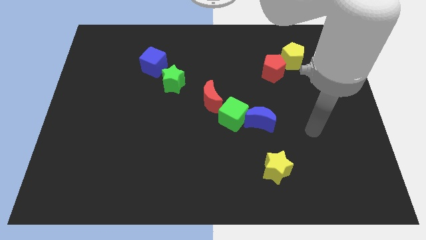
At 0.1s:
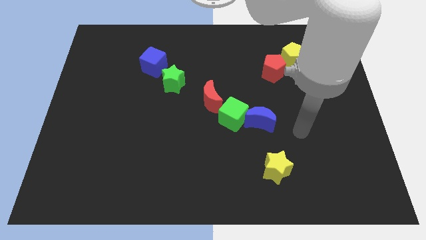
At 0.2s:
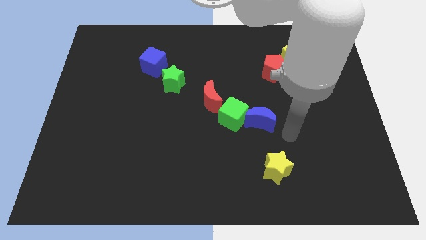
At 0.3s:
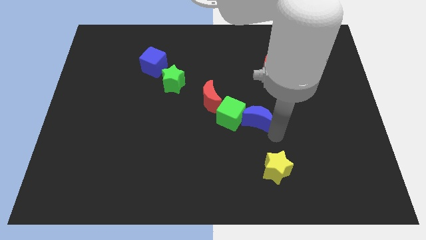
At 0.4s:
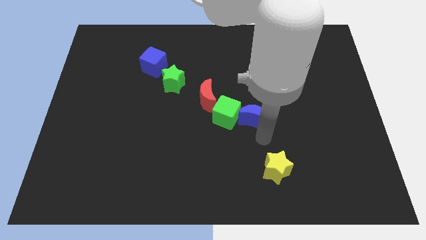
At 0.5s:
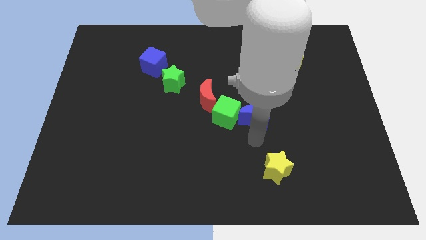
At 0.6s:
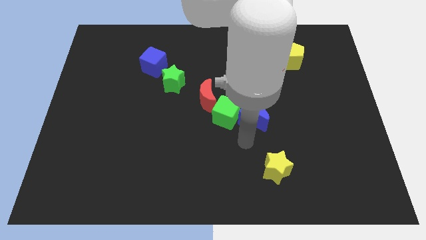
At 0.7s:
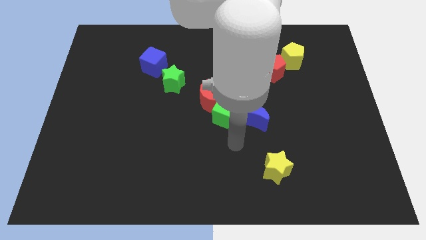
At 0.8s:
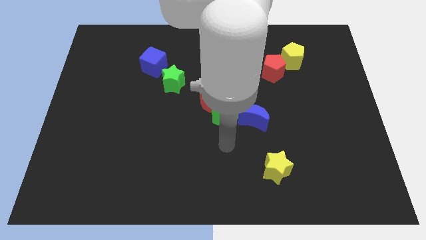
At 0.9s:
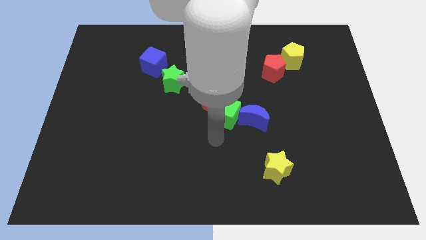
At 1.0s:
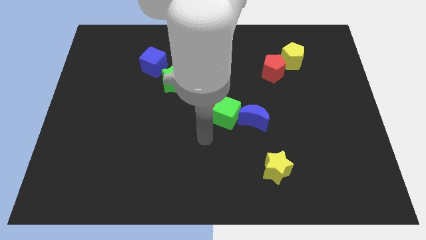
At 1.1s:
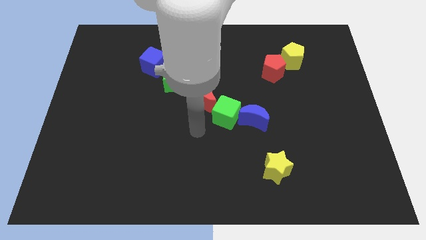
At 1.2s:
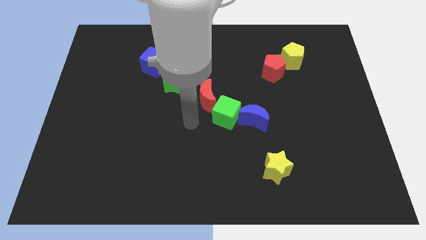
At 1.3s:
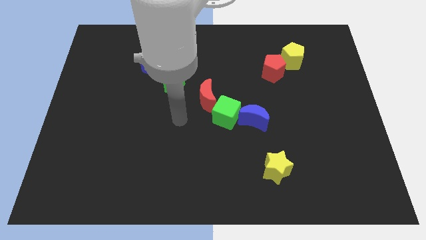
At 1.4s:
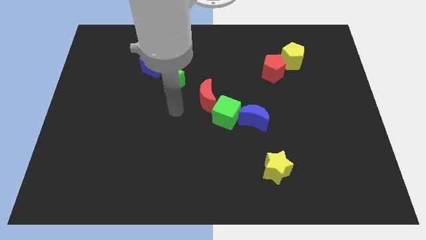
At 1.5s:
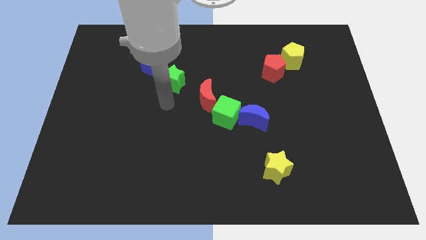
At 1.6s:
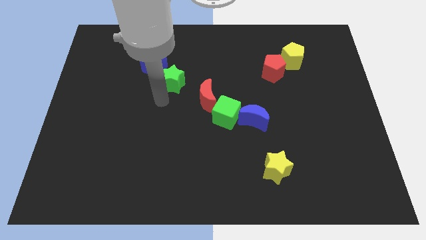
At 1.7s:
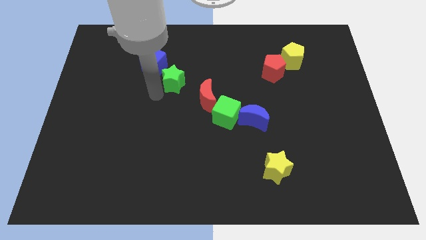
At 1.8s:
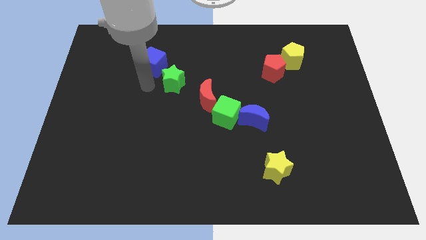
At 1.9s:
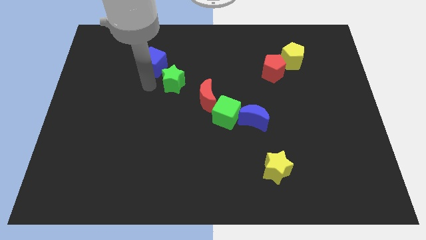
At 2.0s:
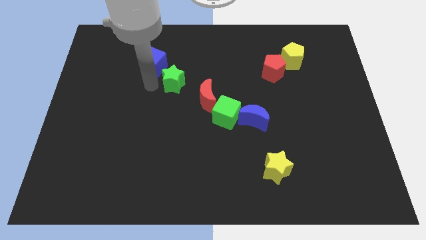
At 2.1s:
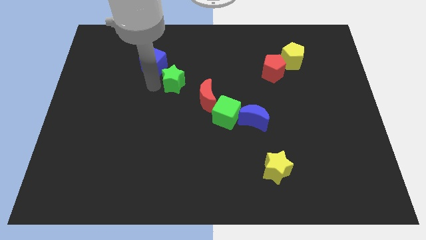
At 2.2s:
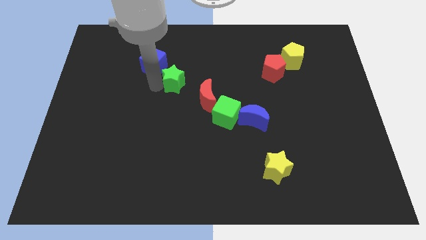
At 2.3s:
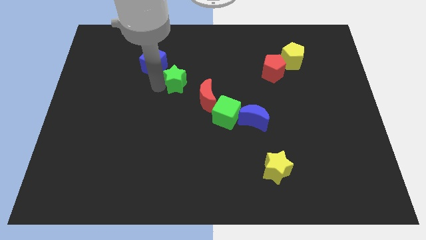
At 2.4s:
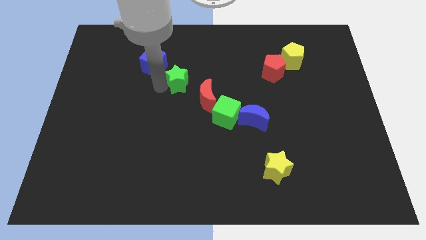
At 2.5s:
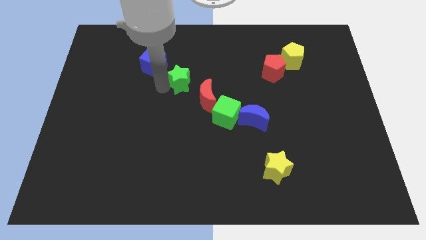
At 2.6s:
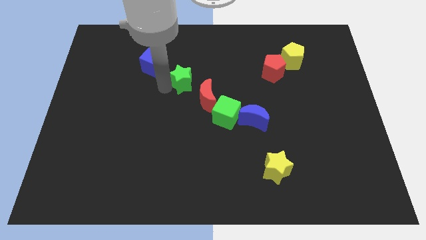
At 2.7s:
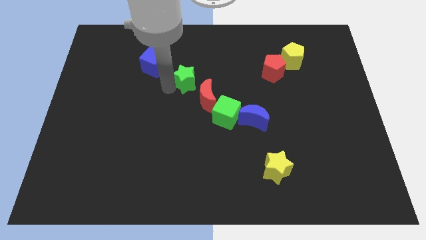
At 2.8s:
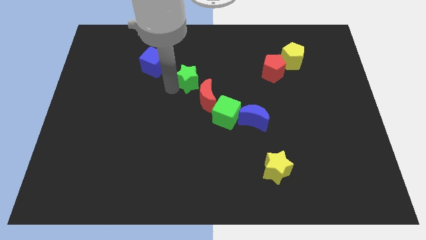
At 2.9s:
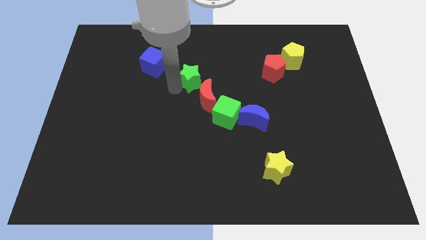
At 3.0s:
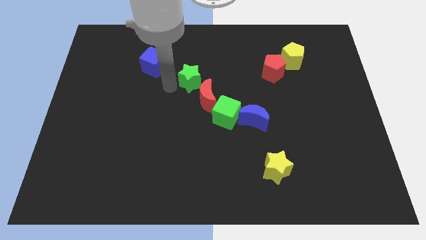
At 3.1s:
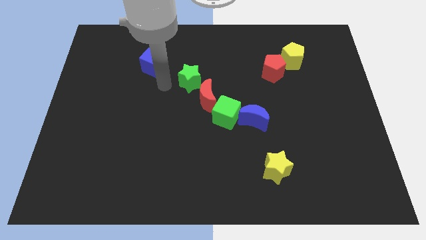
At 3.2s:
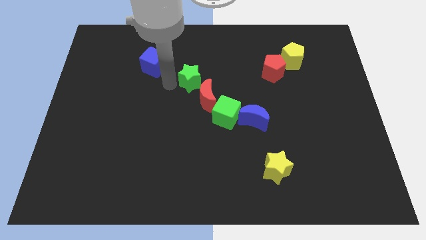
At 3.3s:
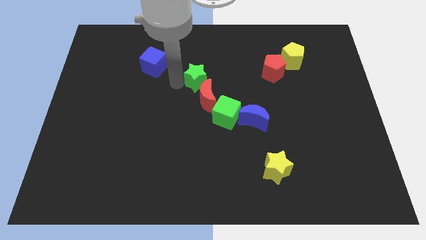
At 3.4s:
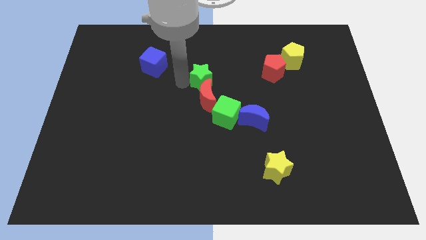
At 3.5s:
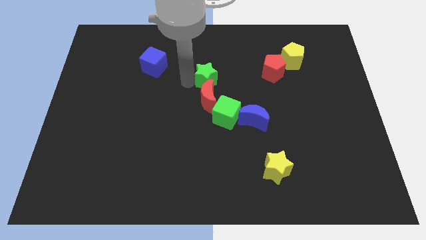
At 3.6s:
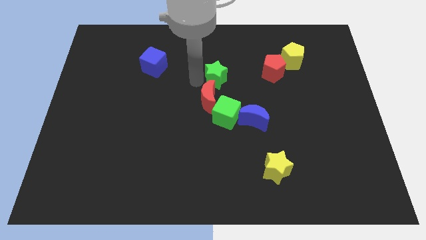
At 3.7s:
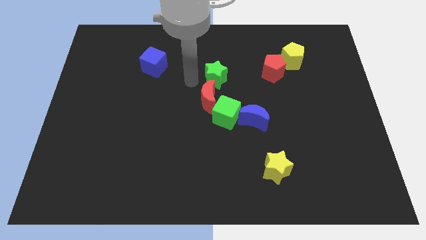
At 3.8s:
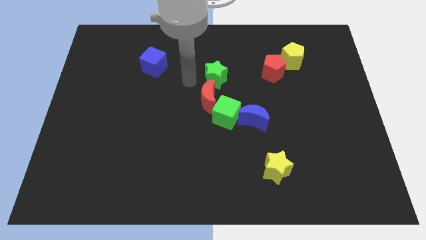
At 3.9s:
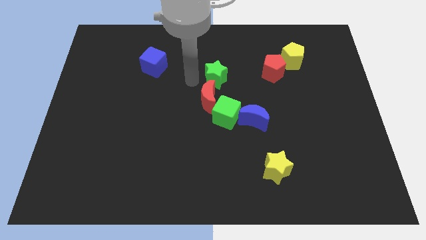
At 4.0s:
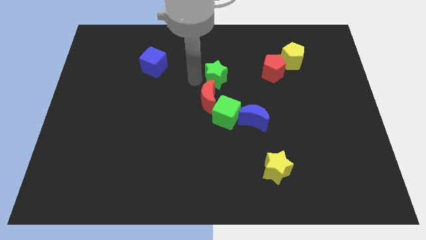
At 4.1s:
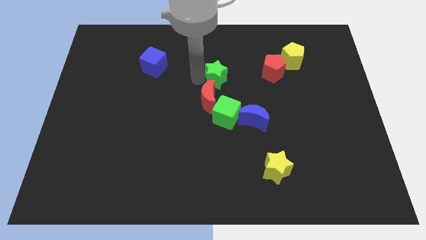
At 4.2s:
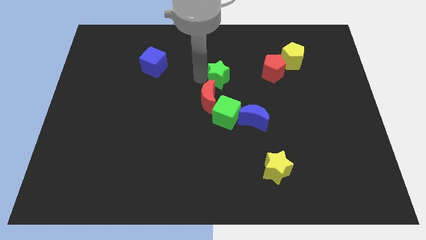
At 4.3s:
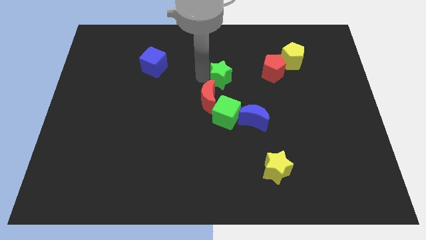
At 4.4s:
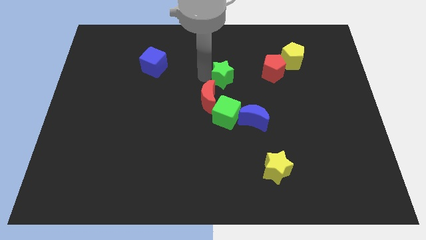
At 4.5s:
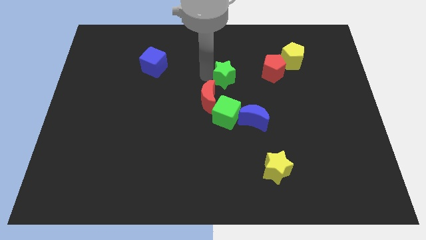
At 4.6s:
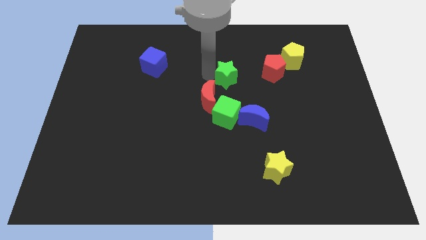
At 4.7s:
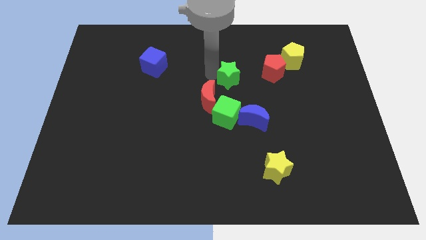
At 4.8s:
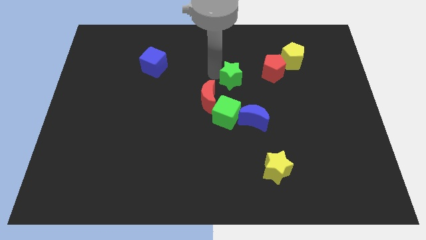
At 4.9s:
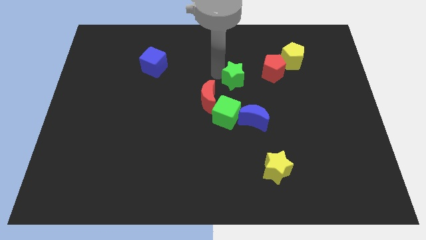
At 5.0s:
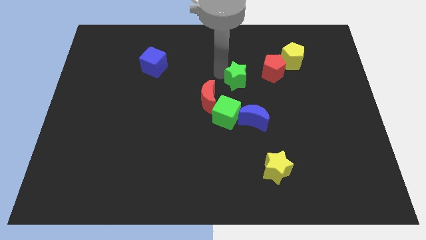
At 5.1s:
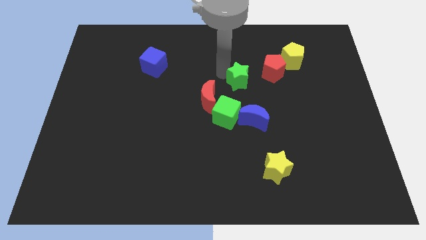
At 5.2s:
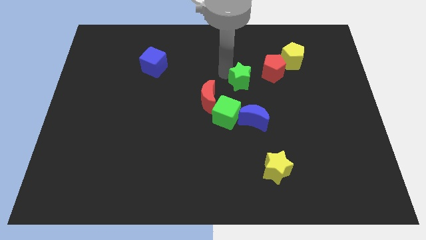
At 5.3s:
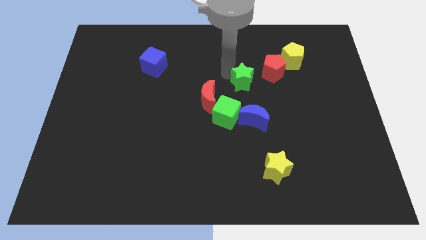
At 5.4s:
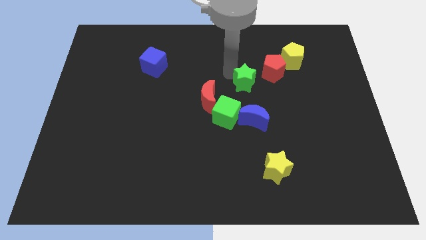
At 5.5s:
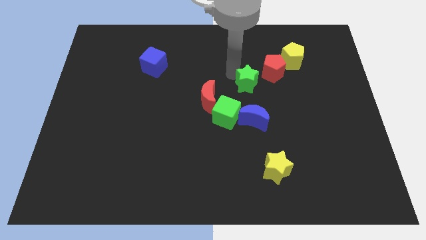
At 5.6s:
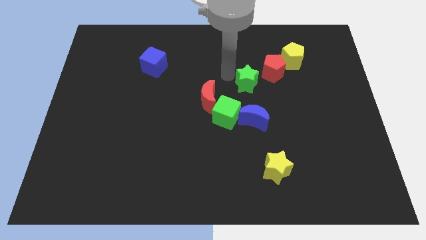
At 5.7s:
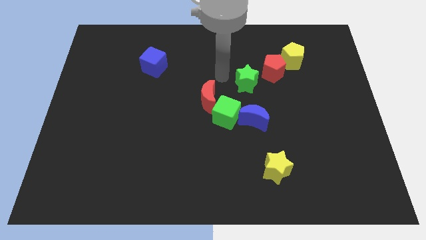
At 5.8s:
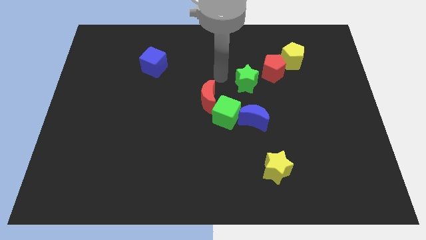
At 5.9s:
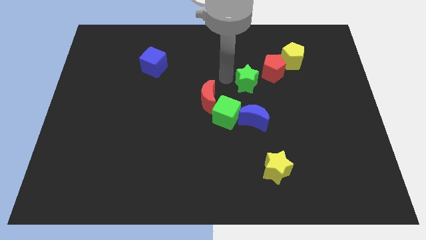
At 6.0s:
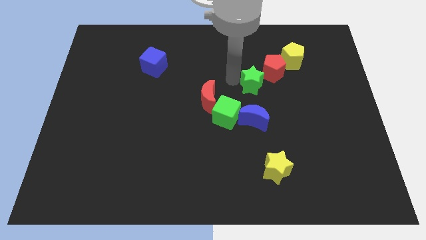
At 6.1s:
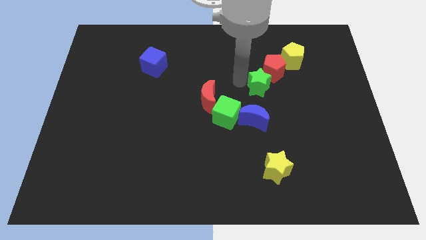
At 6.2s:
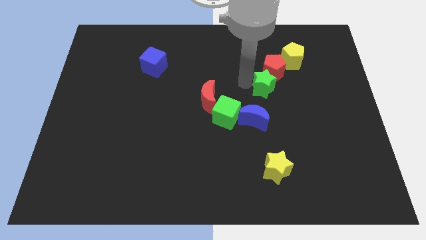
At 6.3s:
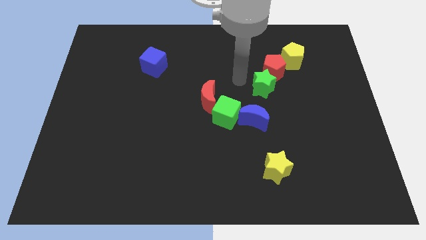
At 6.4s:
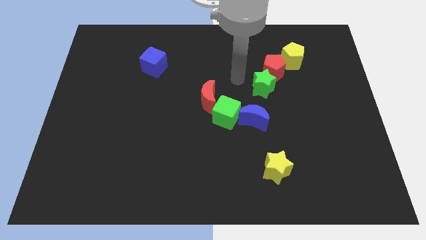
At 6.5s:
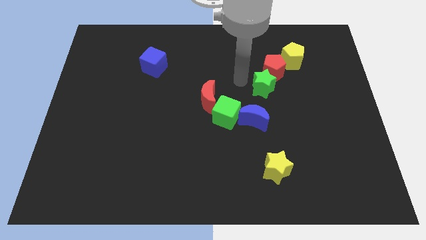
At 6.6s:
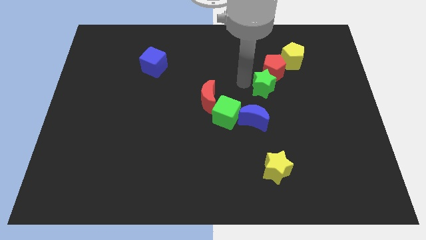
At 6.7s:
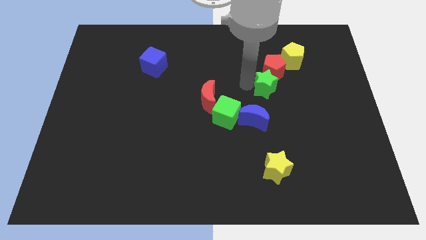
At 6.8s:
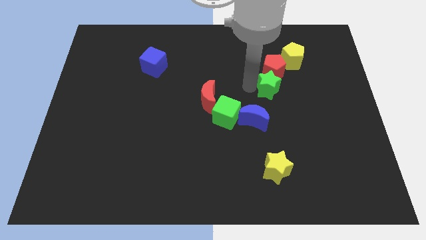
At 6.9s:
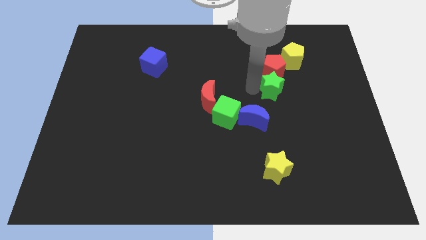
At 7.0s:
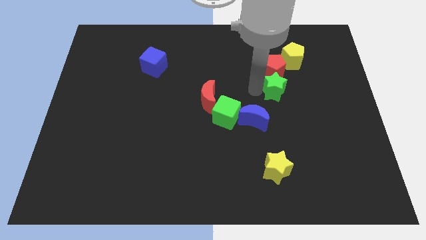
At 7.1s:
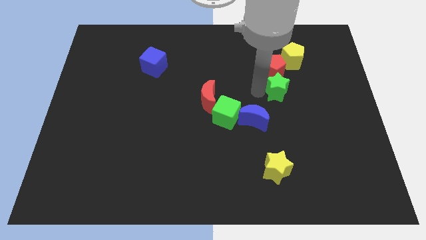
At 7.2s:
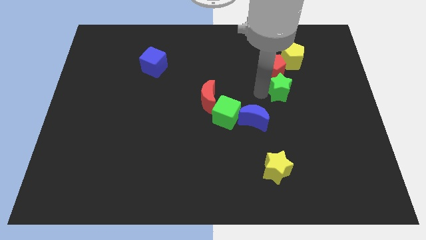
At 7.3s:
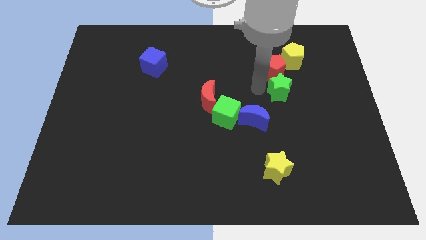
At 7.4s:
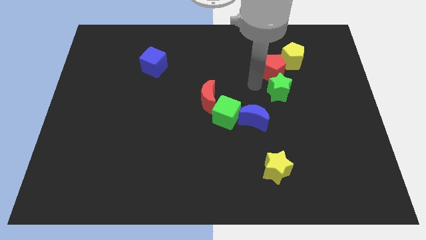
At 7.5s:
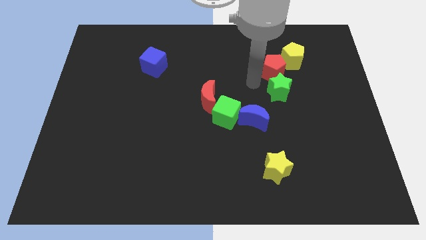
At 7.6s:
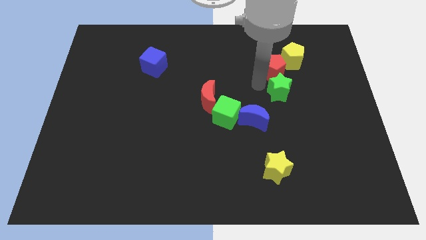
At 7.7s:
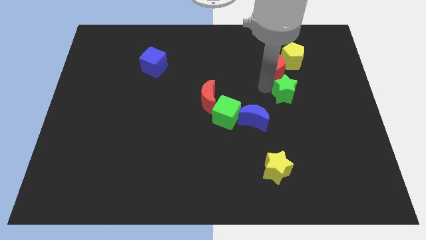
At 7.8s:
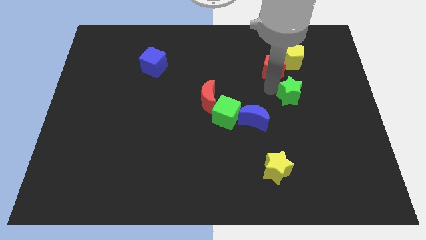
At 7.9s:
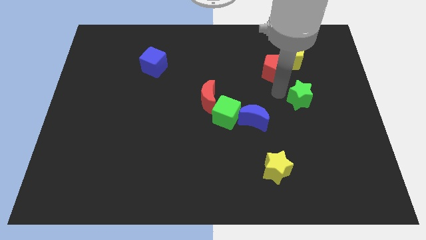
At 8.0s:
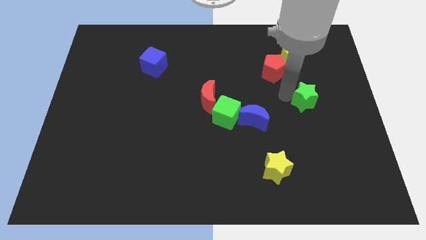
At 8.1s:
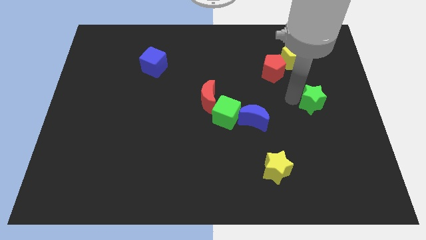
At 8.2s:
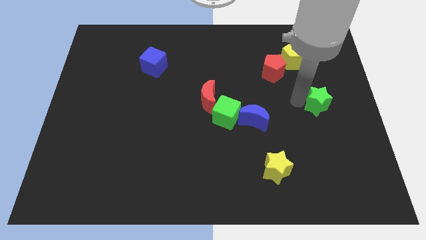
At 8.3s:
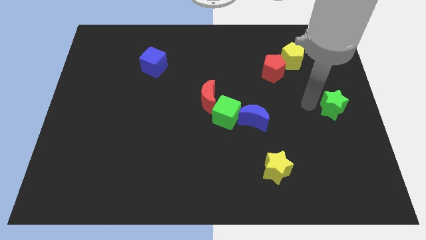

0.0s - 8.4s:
put the green star to the right side
